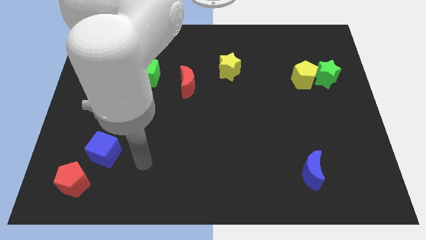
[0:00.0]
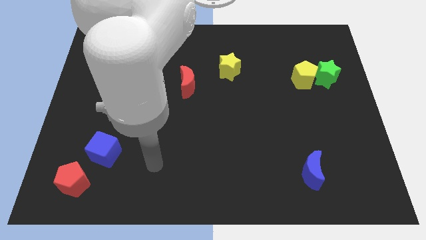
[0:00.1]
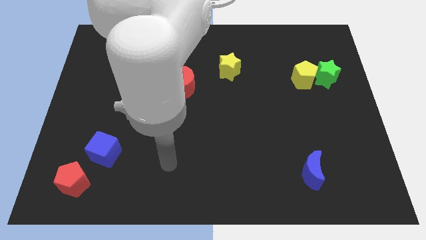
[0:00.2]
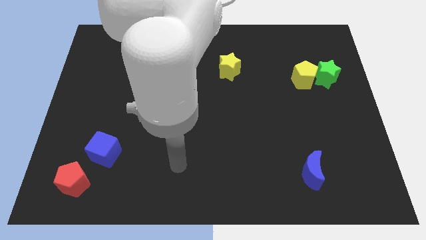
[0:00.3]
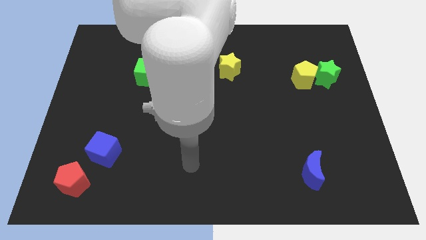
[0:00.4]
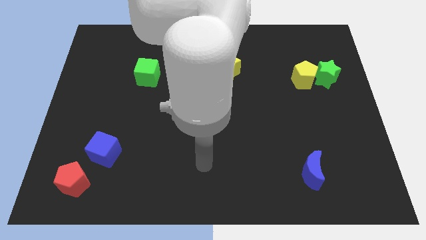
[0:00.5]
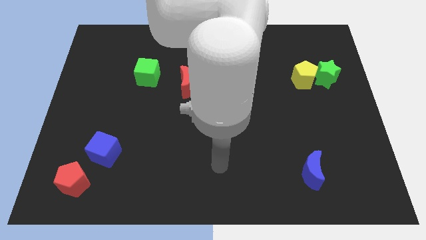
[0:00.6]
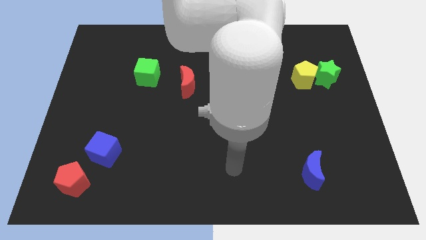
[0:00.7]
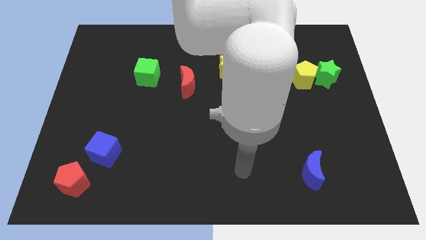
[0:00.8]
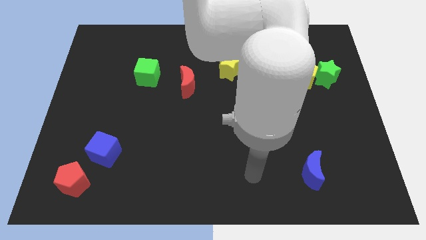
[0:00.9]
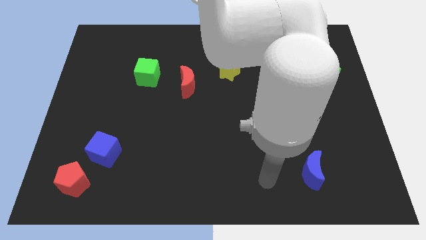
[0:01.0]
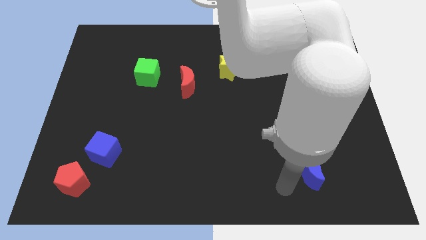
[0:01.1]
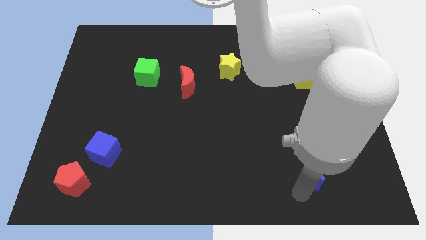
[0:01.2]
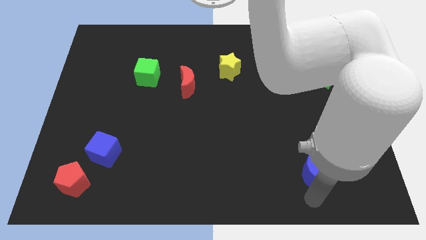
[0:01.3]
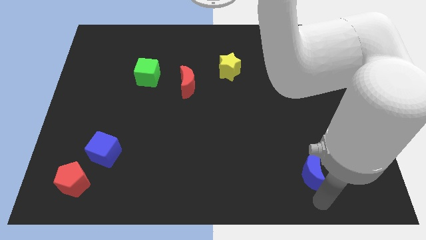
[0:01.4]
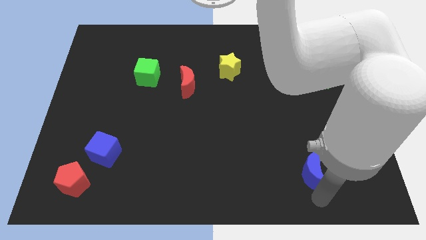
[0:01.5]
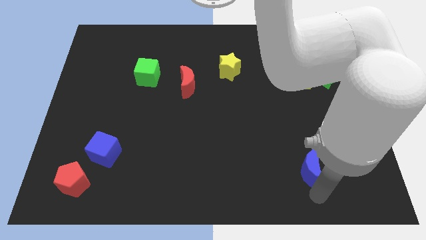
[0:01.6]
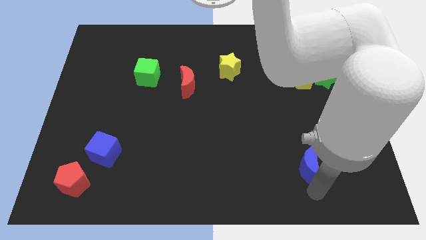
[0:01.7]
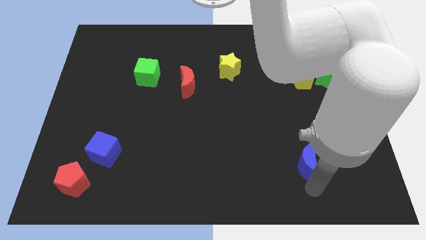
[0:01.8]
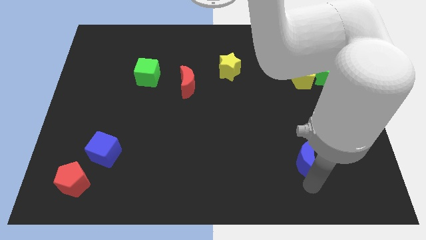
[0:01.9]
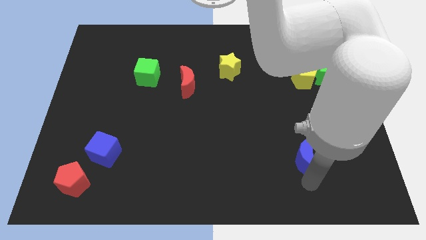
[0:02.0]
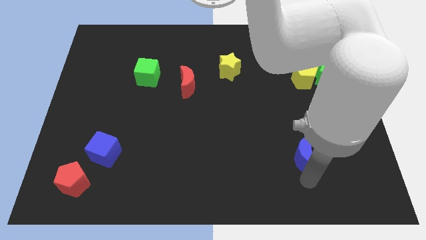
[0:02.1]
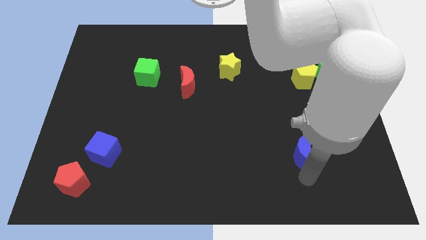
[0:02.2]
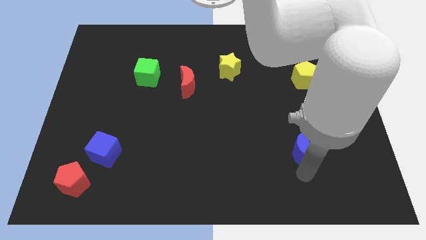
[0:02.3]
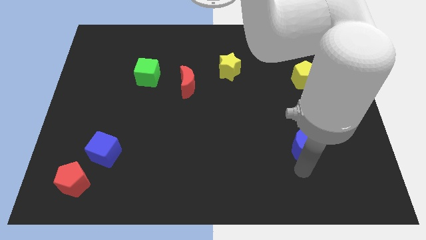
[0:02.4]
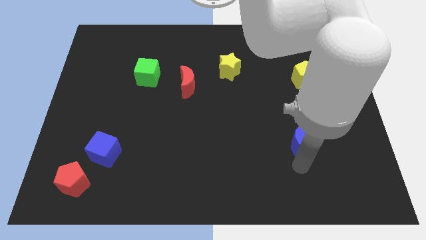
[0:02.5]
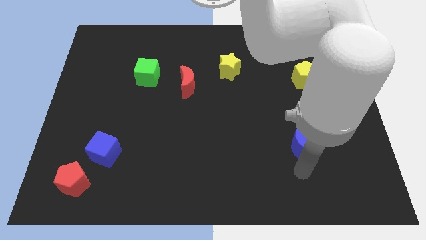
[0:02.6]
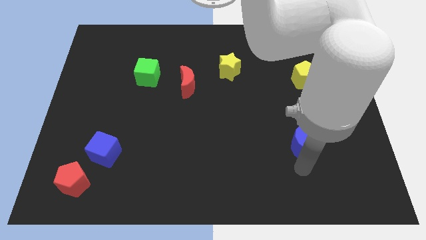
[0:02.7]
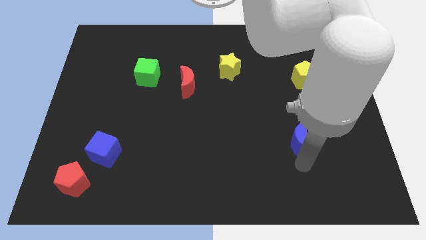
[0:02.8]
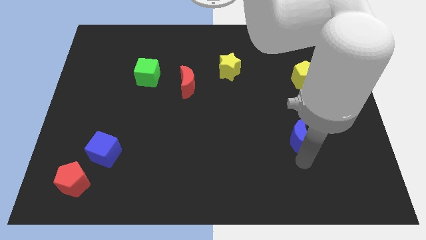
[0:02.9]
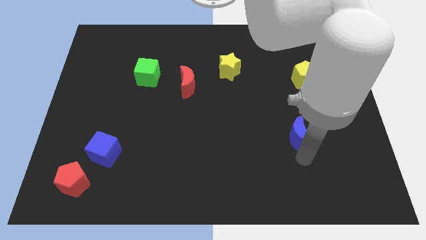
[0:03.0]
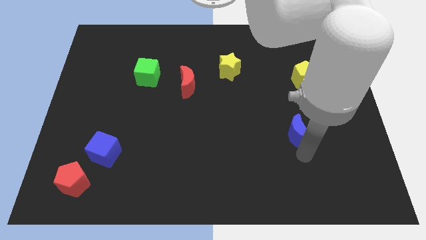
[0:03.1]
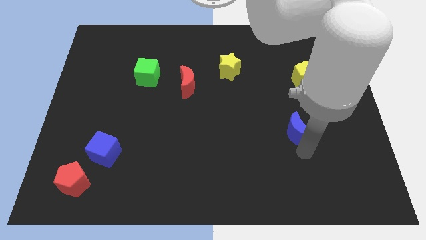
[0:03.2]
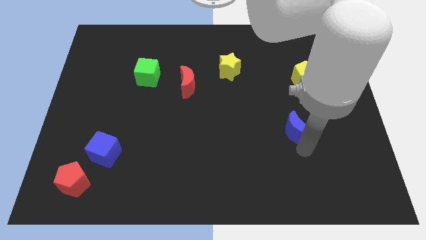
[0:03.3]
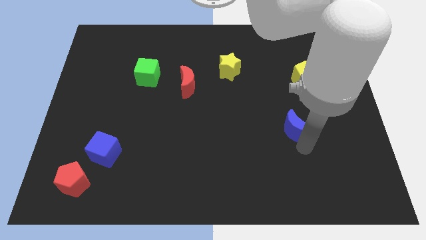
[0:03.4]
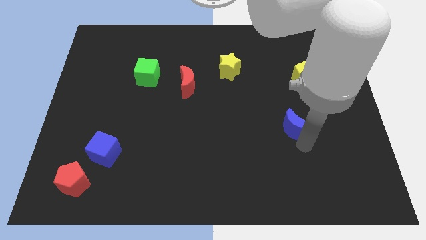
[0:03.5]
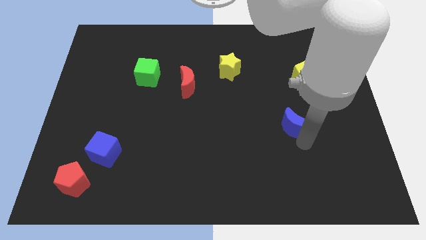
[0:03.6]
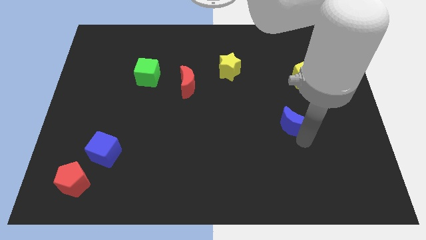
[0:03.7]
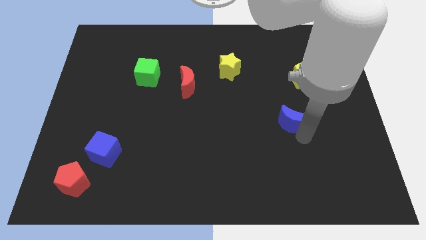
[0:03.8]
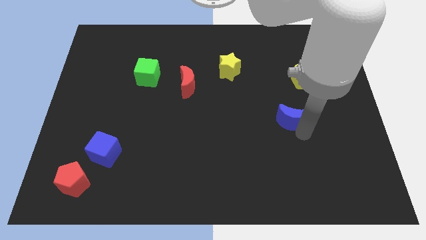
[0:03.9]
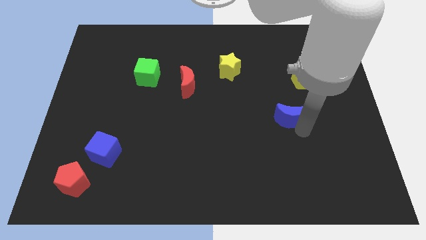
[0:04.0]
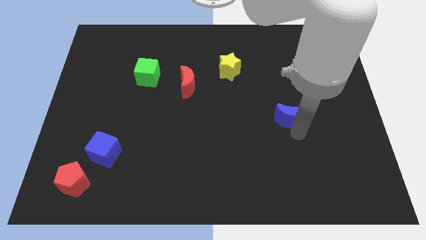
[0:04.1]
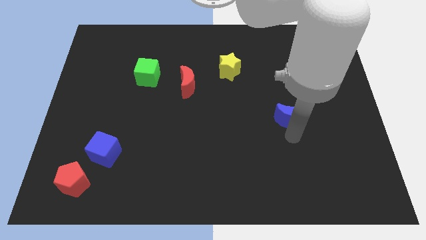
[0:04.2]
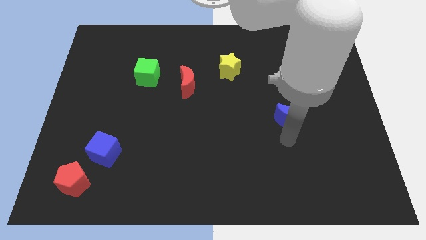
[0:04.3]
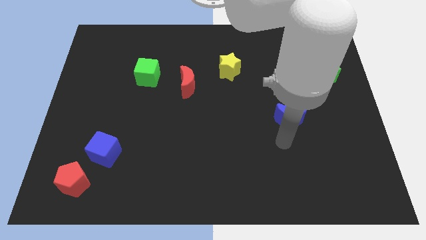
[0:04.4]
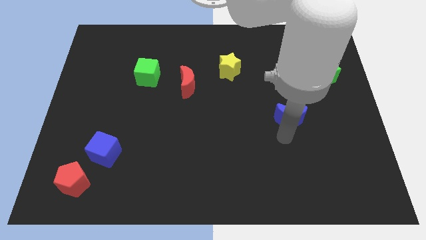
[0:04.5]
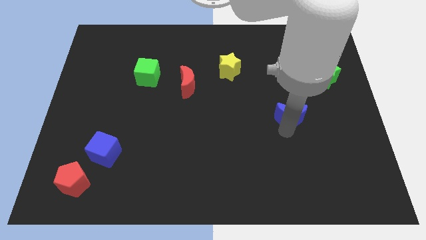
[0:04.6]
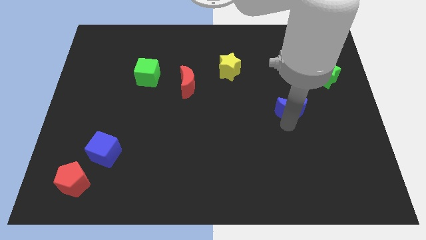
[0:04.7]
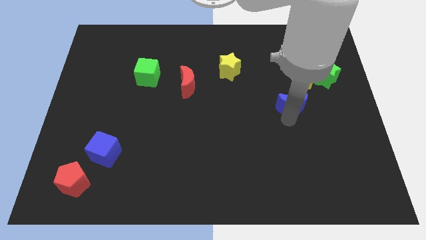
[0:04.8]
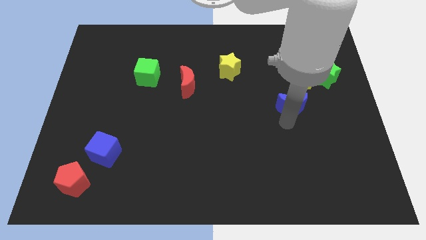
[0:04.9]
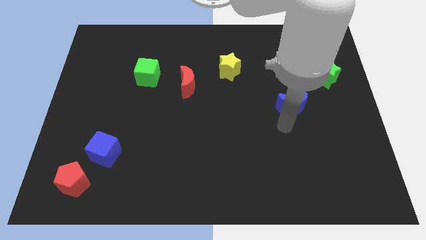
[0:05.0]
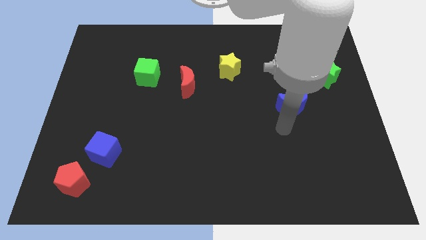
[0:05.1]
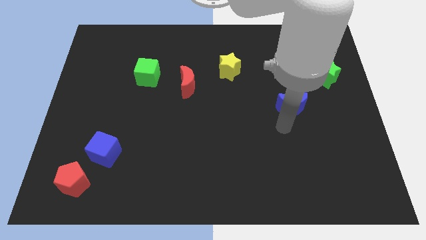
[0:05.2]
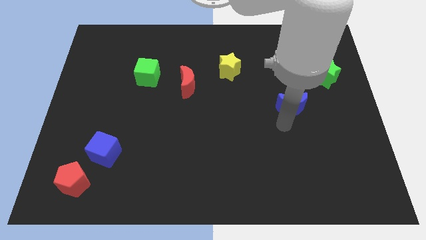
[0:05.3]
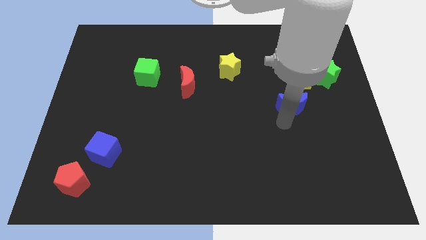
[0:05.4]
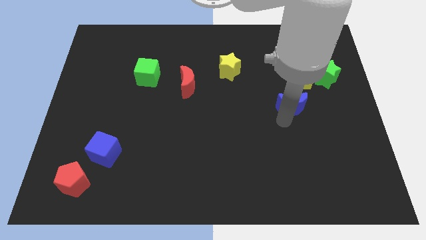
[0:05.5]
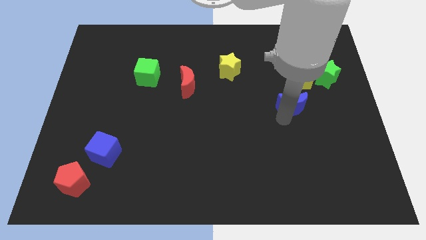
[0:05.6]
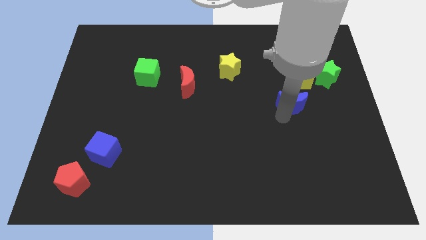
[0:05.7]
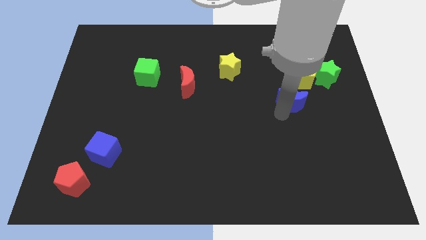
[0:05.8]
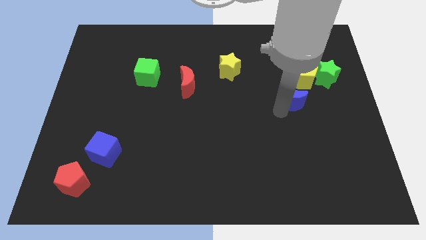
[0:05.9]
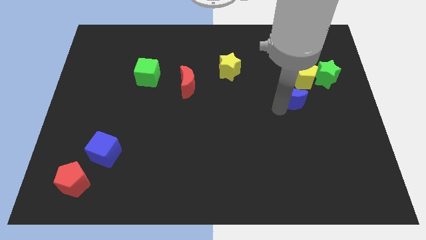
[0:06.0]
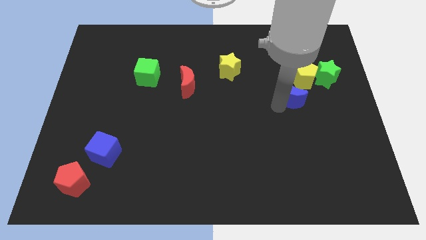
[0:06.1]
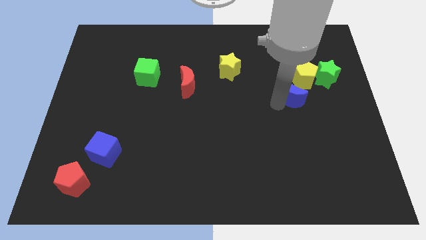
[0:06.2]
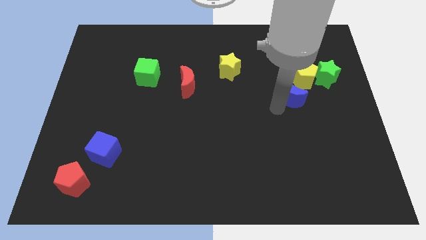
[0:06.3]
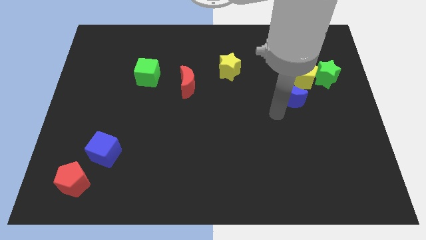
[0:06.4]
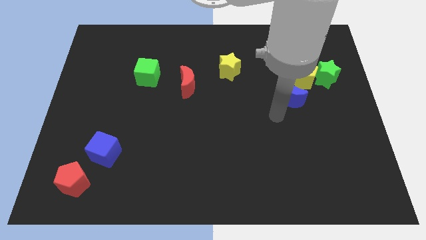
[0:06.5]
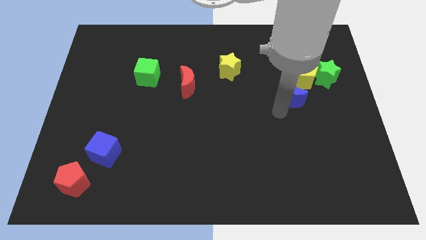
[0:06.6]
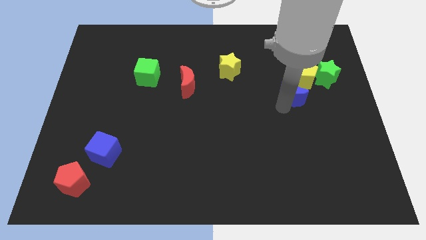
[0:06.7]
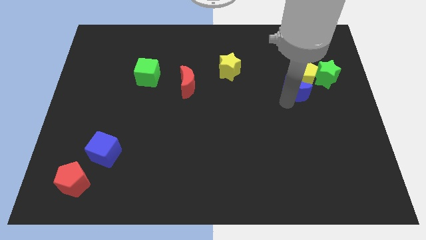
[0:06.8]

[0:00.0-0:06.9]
move the blue moon next to the yellow pentagon
